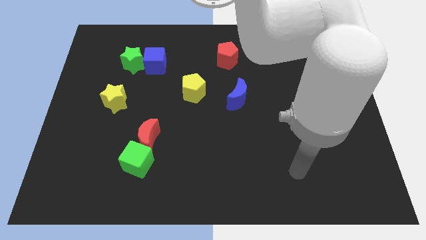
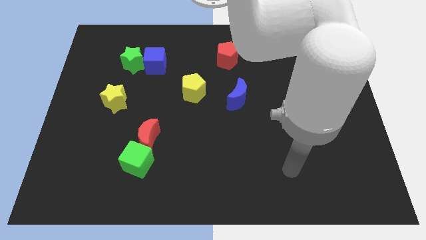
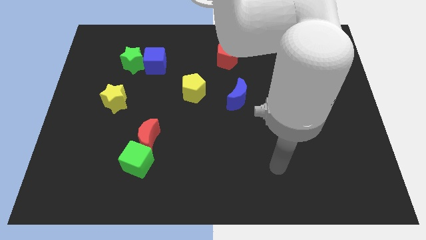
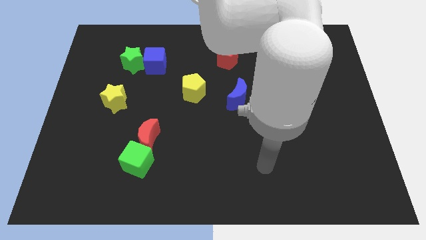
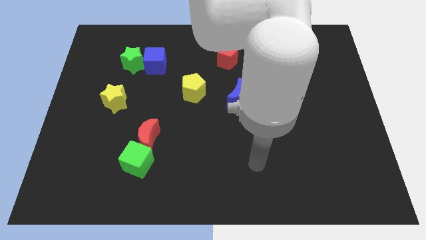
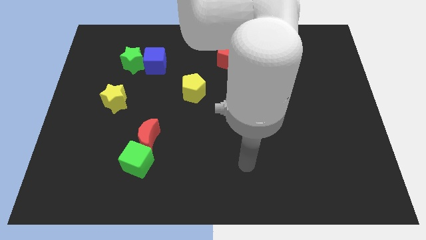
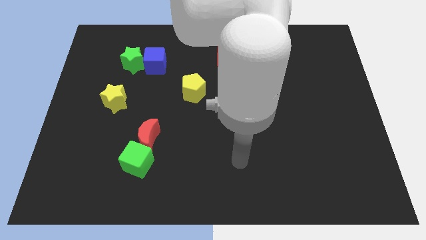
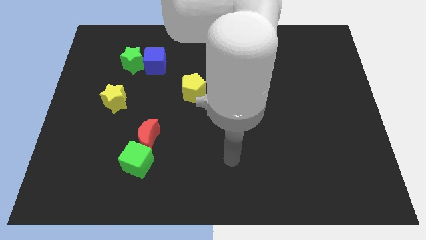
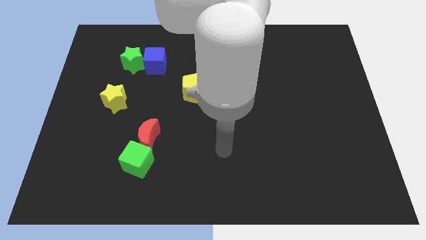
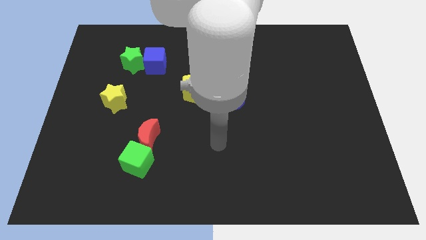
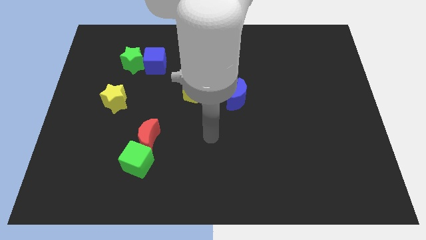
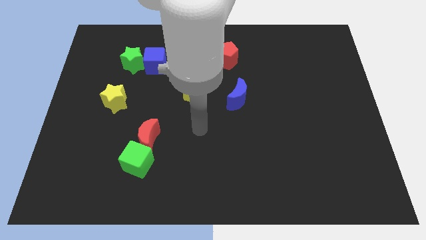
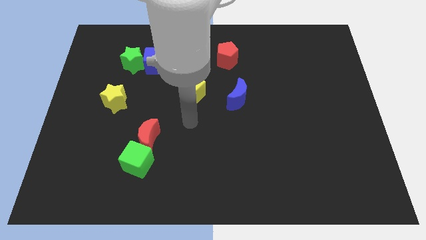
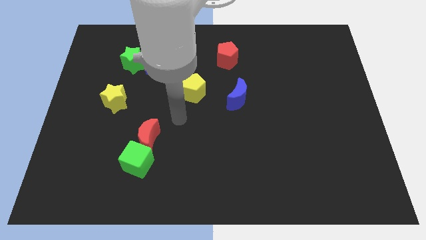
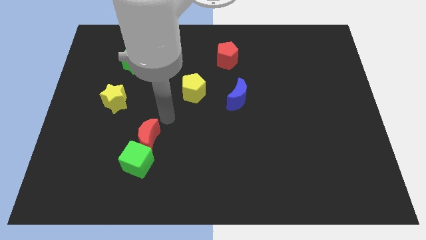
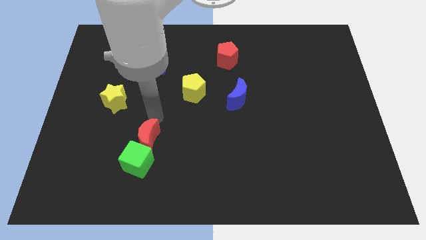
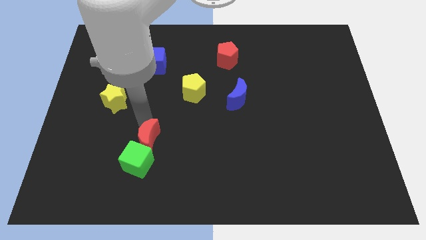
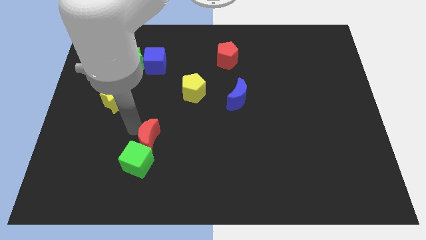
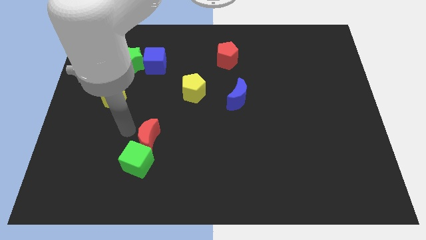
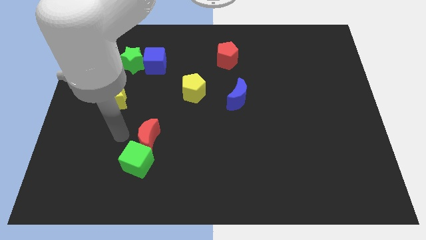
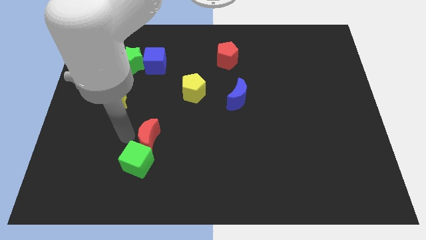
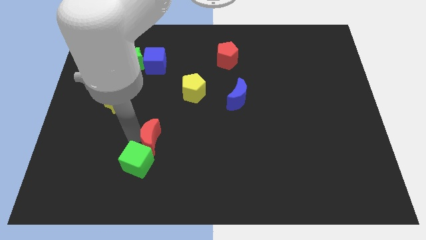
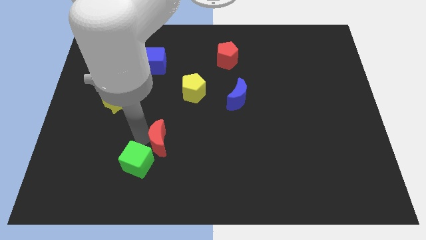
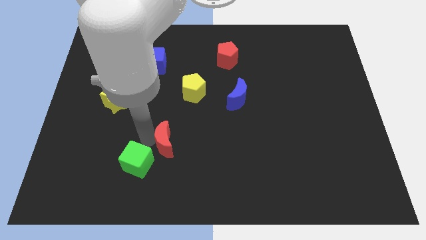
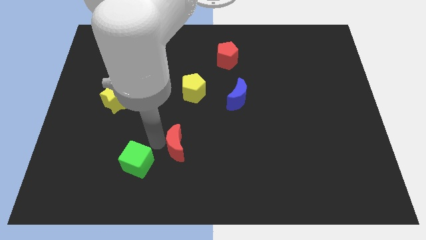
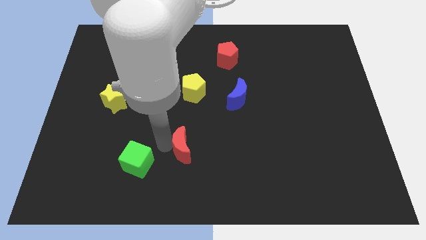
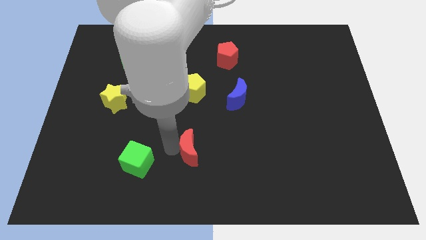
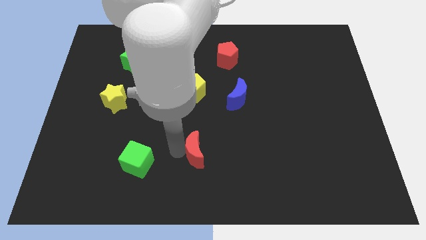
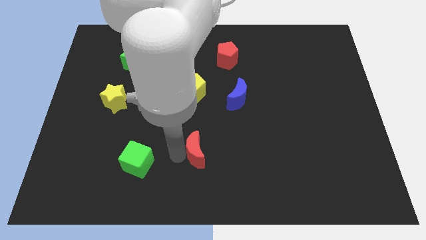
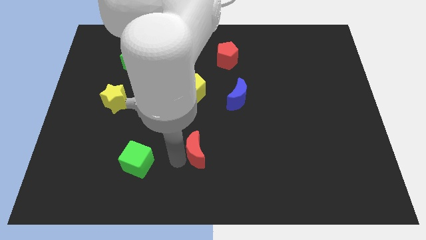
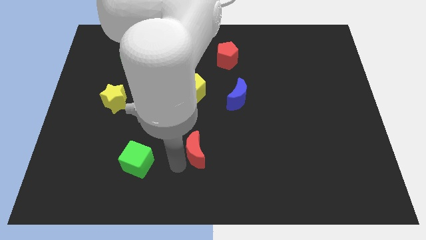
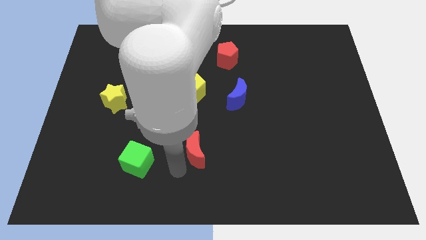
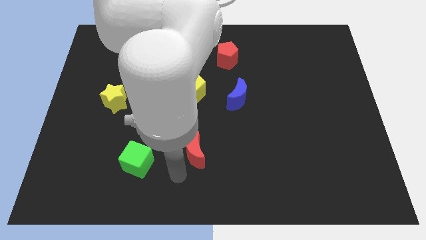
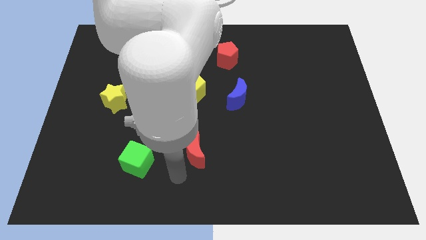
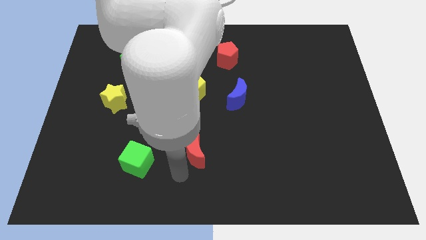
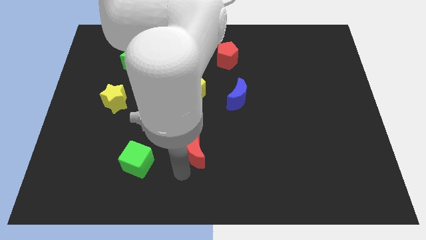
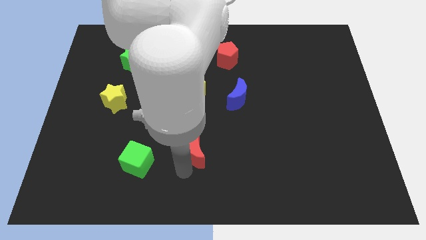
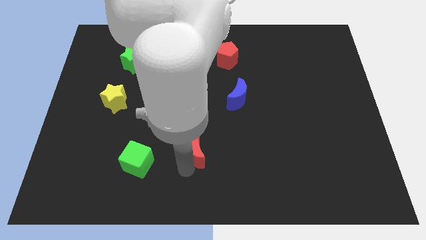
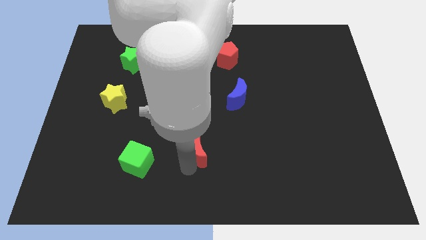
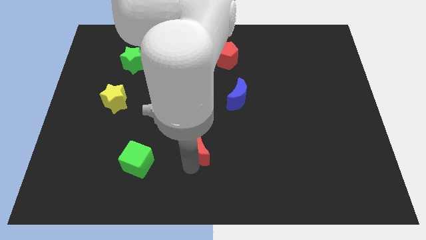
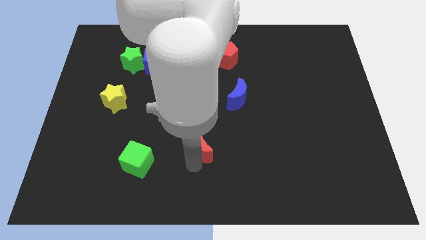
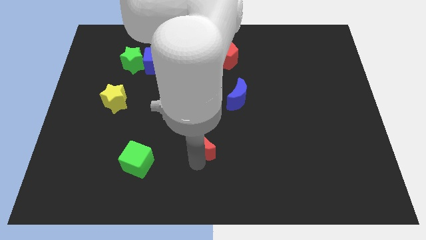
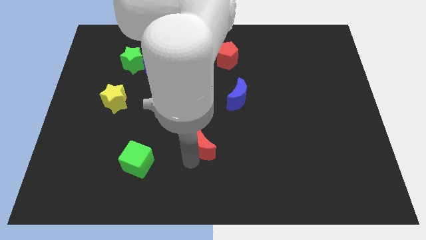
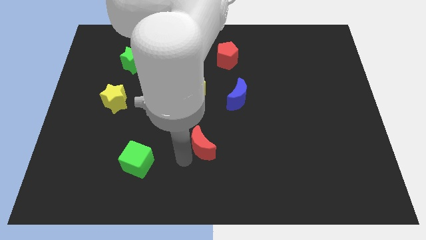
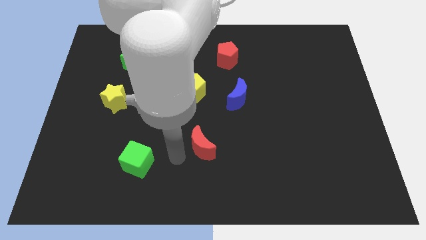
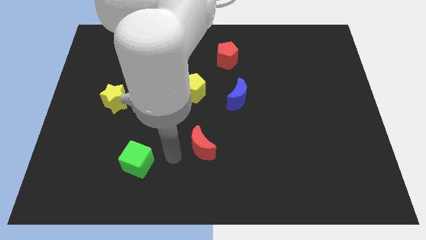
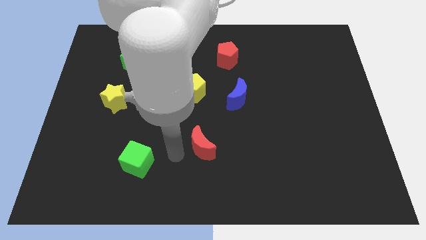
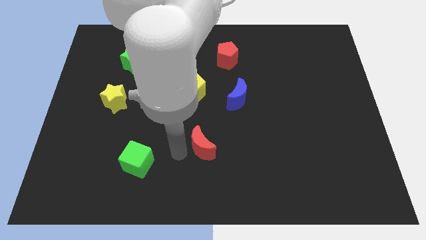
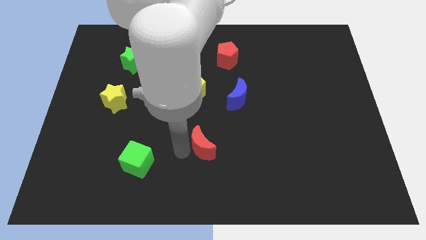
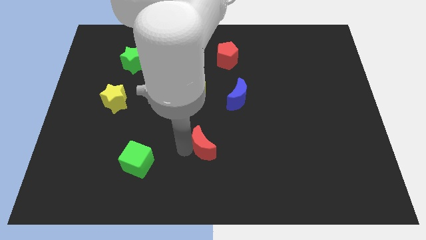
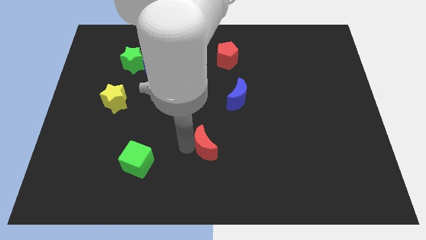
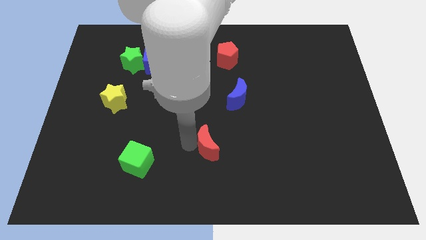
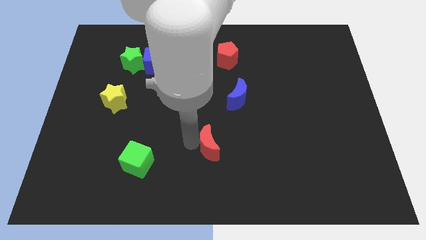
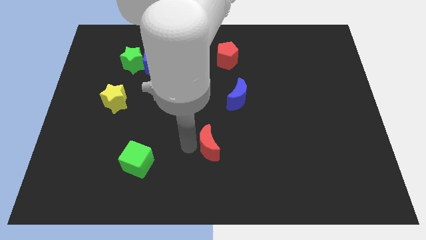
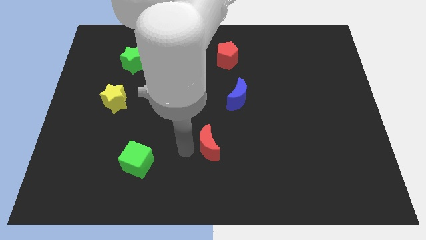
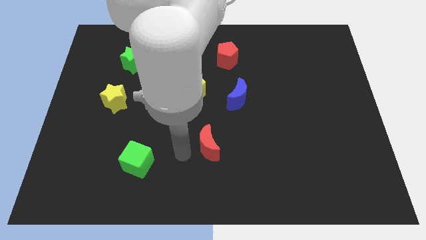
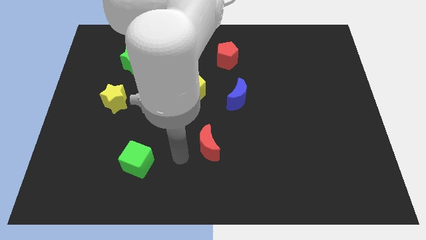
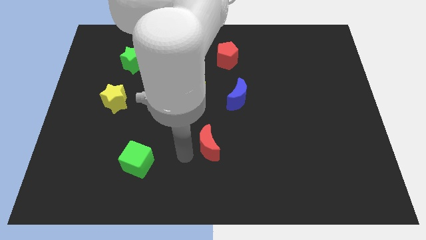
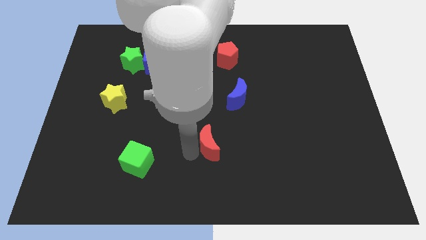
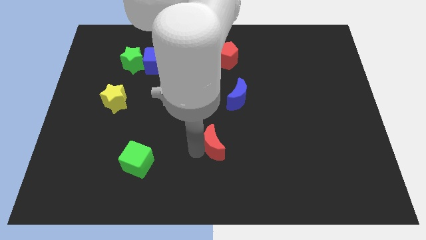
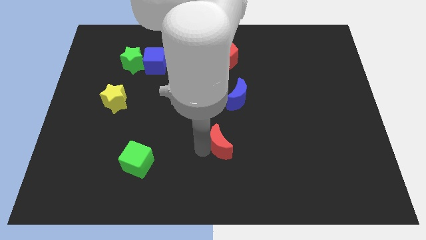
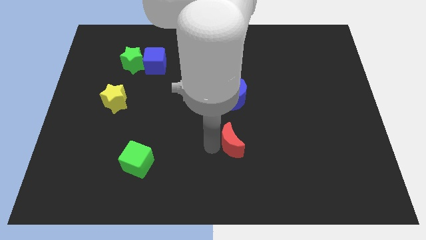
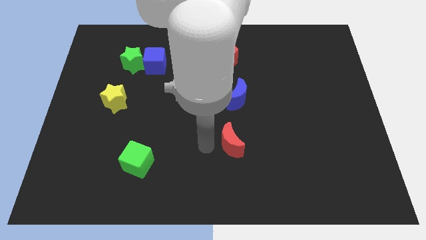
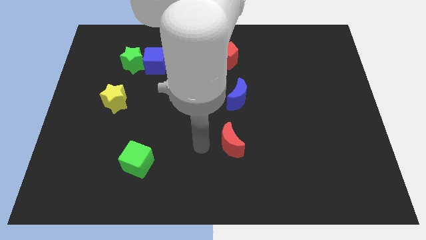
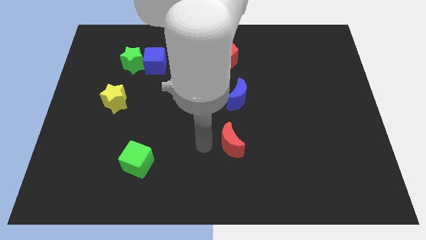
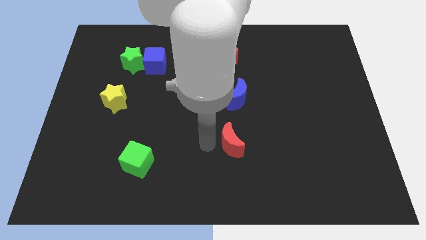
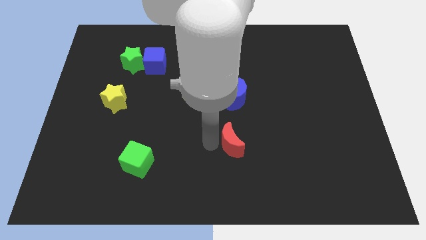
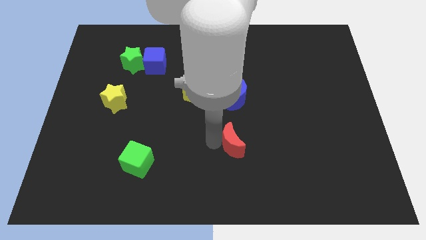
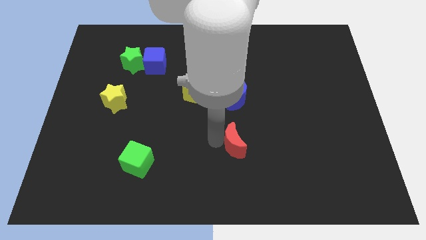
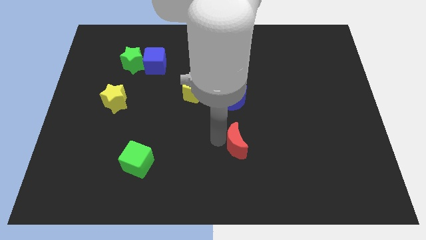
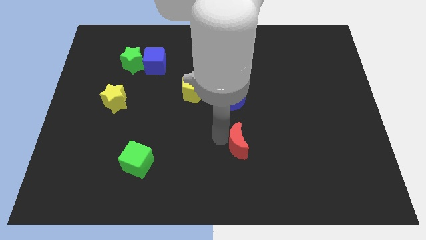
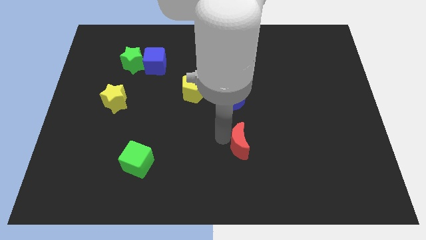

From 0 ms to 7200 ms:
slide the red moon right

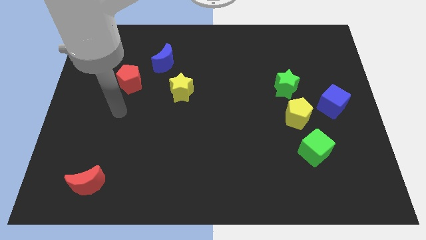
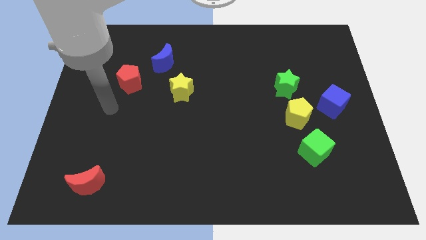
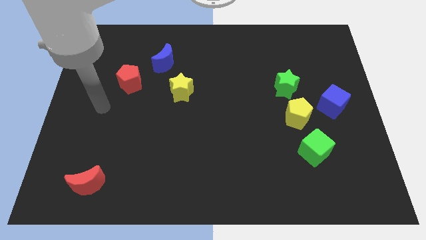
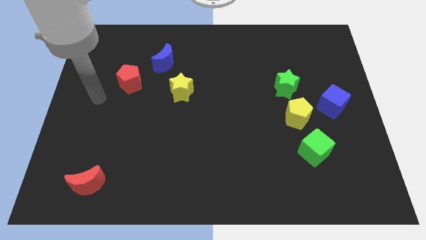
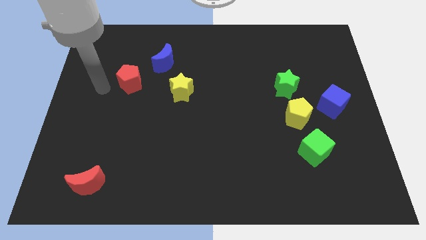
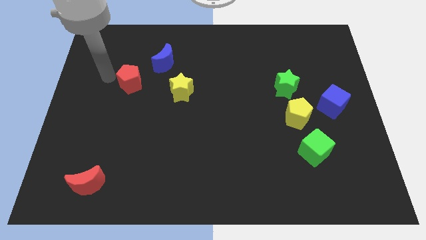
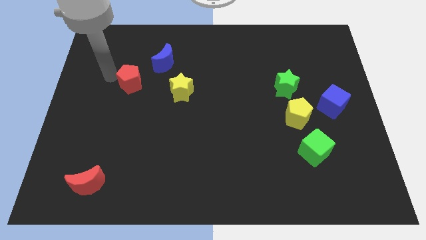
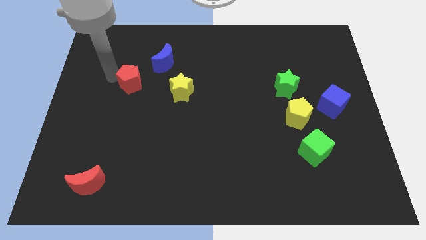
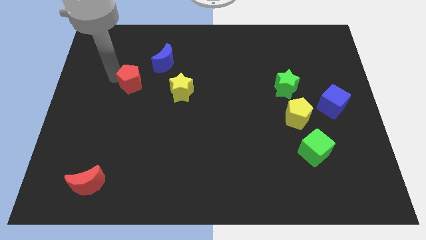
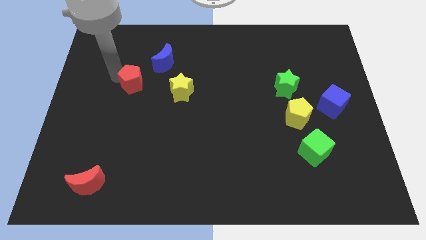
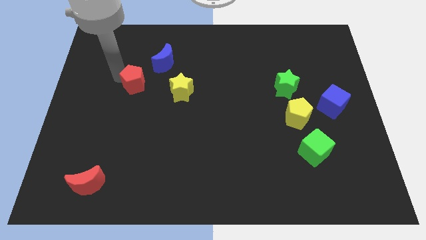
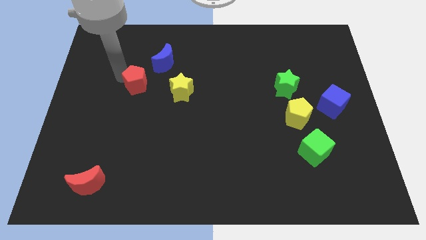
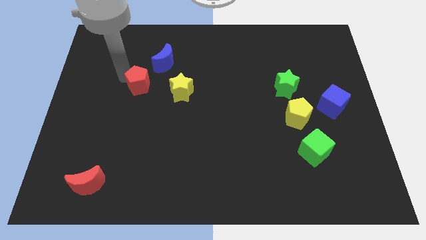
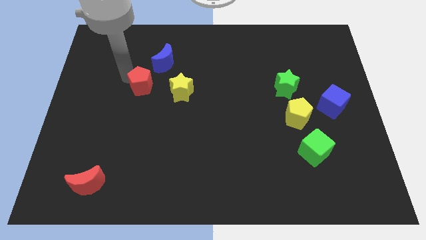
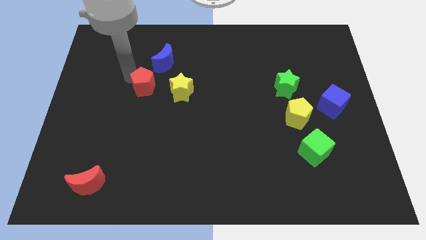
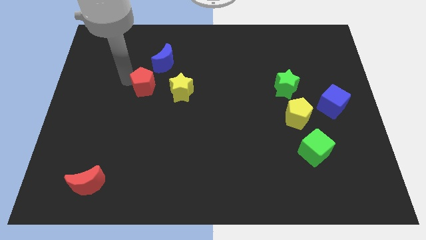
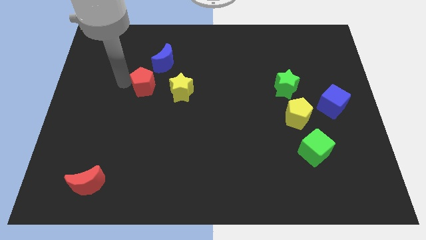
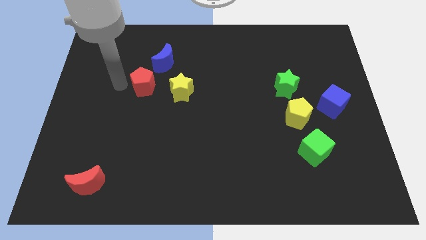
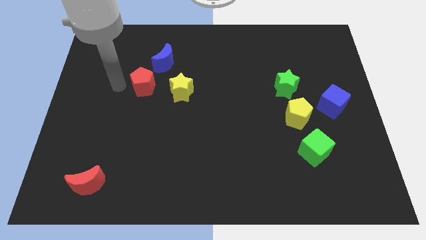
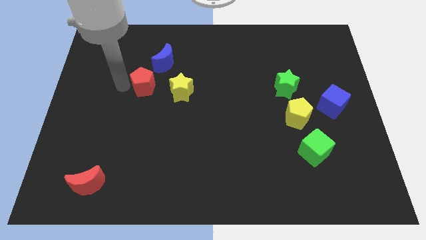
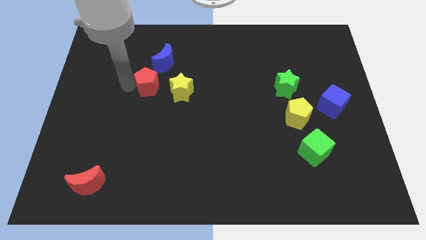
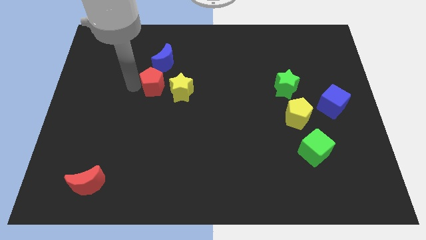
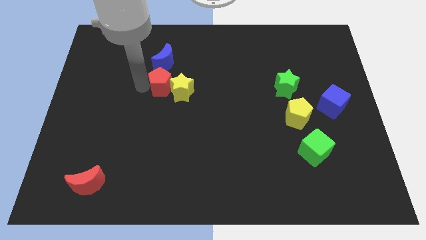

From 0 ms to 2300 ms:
push the red pentagon somewhat to the right
